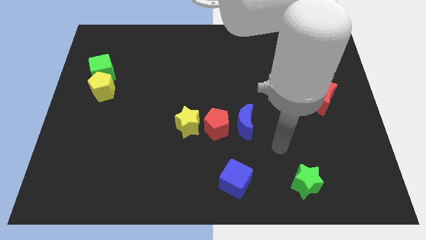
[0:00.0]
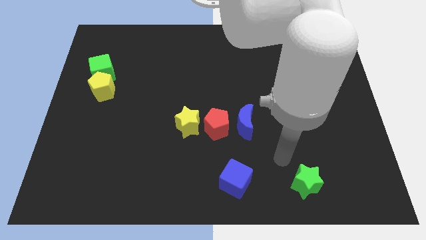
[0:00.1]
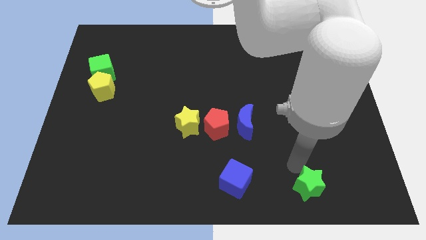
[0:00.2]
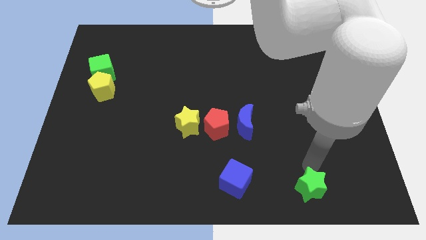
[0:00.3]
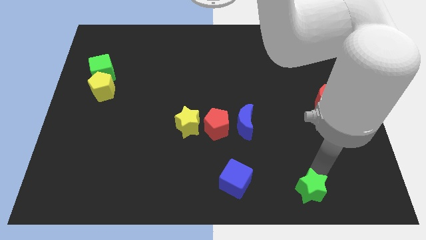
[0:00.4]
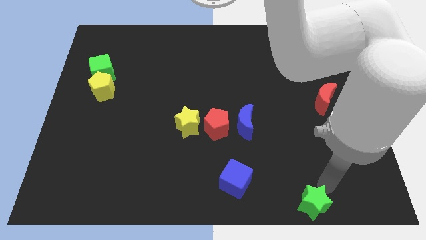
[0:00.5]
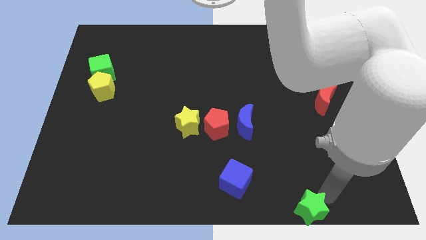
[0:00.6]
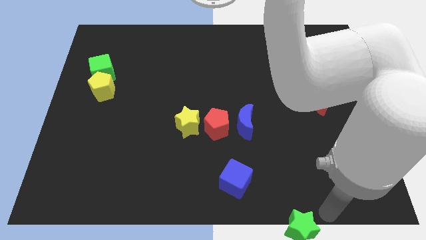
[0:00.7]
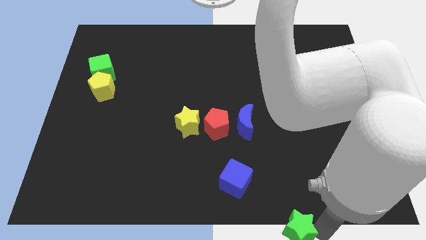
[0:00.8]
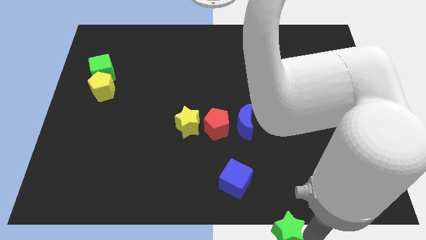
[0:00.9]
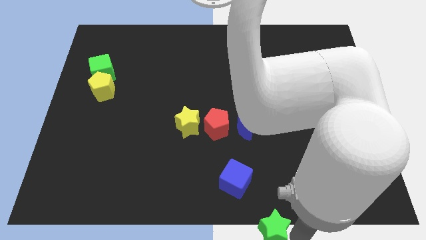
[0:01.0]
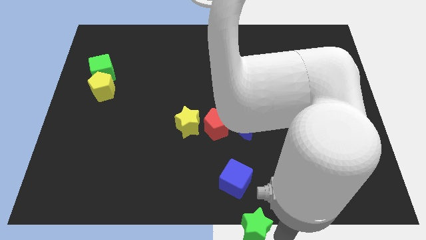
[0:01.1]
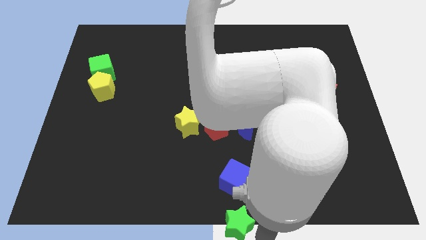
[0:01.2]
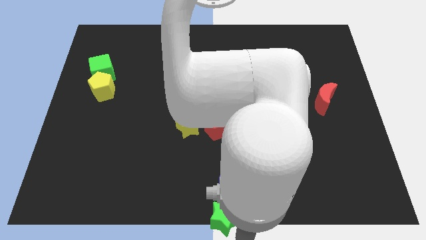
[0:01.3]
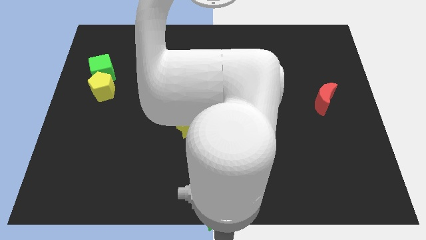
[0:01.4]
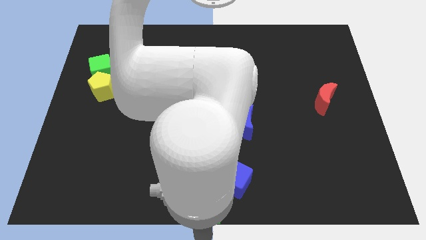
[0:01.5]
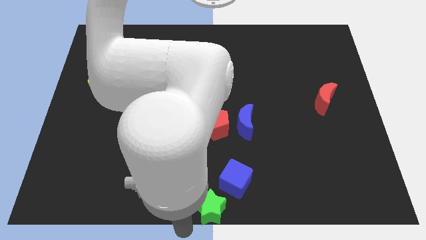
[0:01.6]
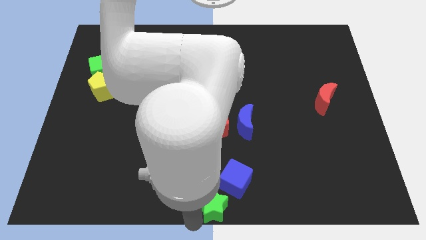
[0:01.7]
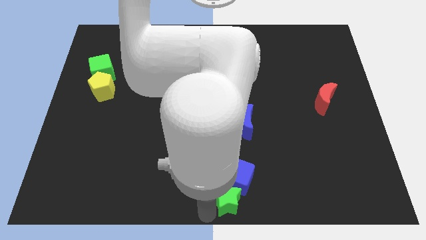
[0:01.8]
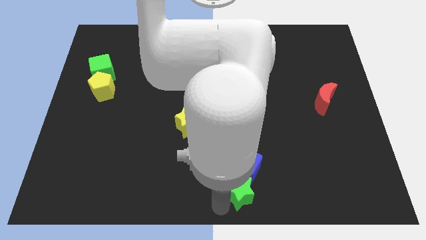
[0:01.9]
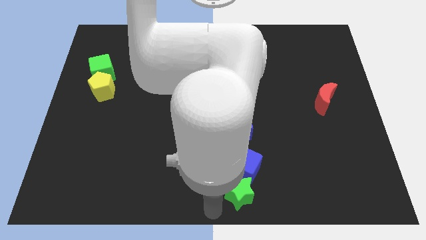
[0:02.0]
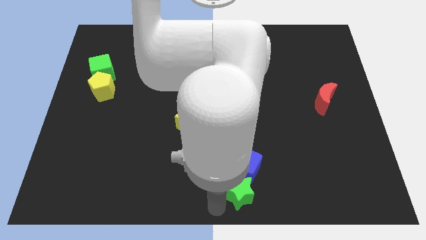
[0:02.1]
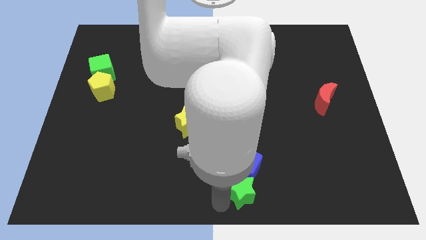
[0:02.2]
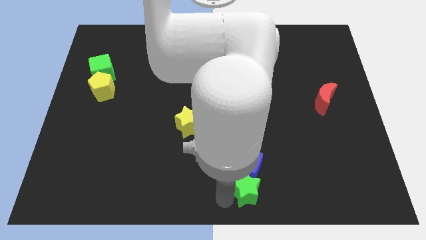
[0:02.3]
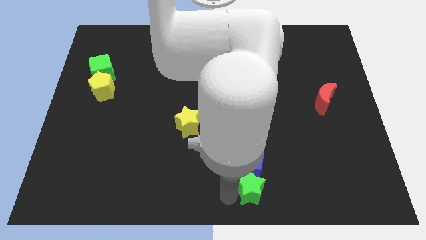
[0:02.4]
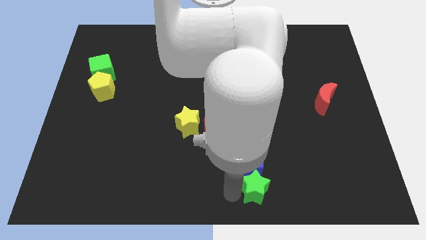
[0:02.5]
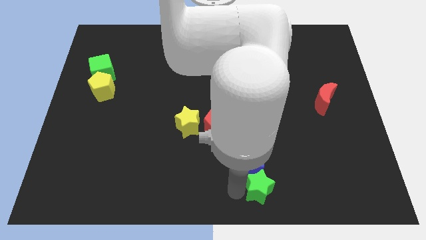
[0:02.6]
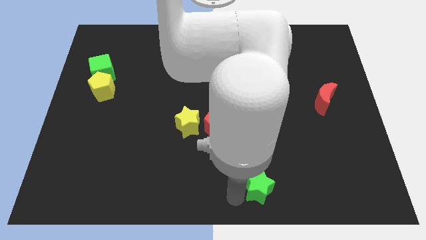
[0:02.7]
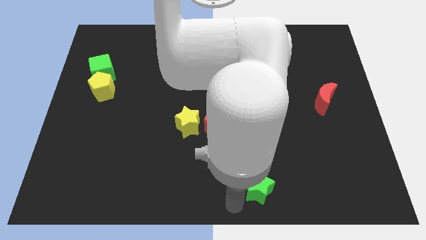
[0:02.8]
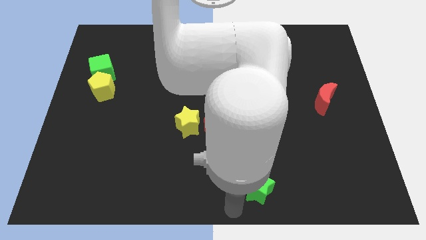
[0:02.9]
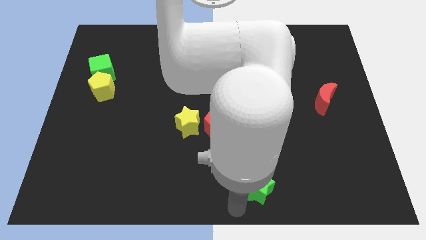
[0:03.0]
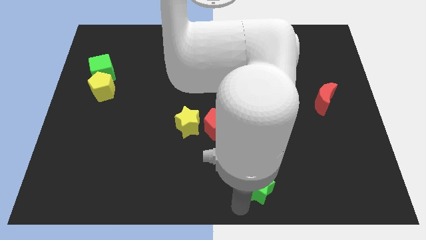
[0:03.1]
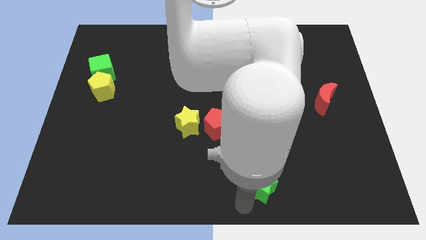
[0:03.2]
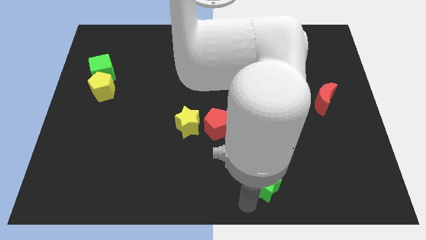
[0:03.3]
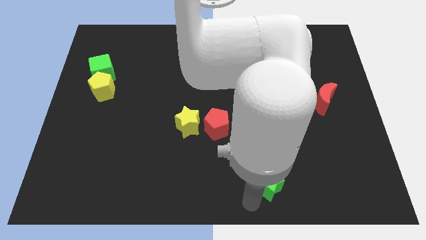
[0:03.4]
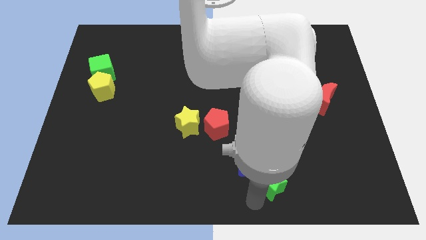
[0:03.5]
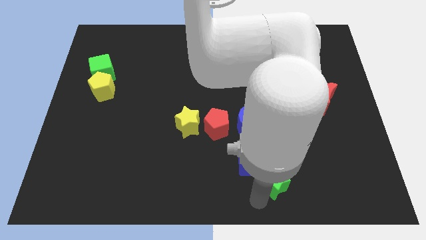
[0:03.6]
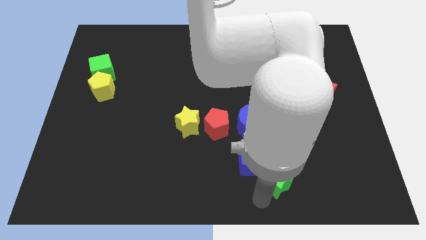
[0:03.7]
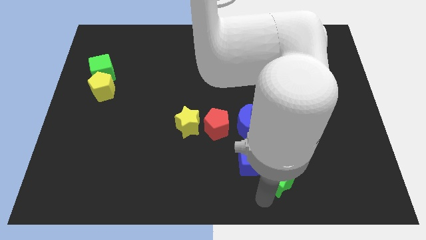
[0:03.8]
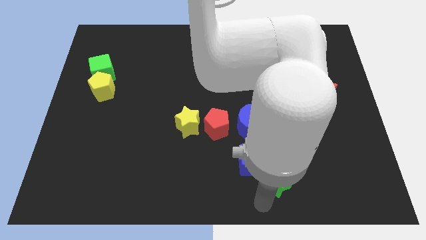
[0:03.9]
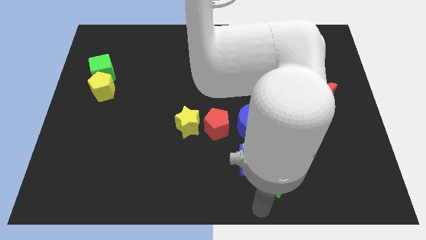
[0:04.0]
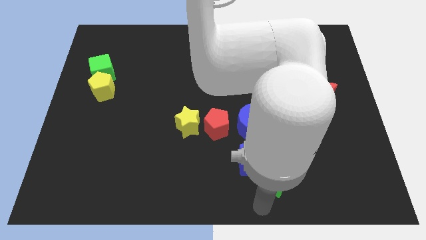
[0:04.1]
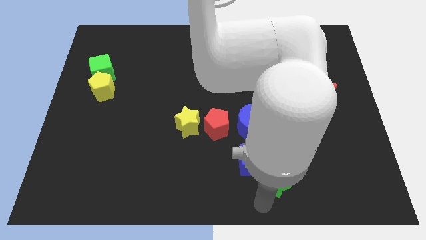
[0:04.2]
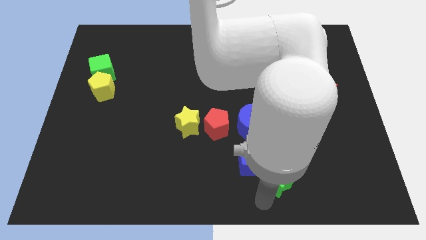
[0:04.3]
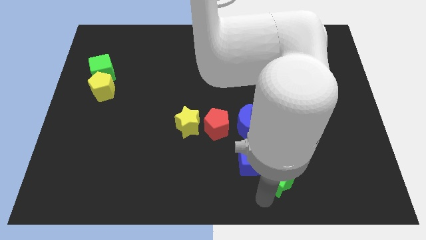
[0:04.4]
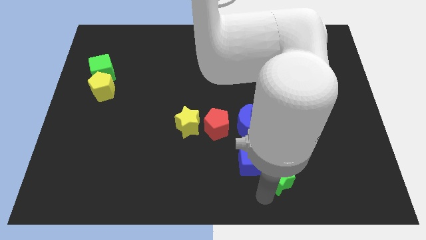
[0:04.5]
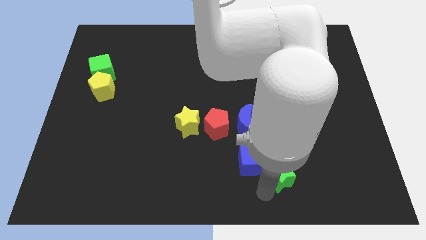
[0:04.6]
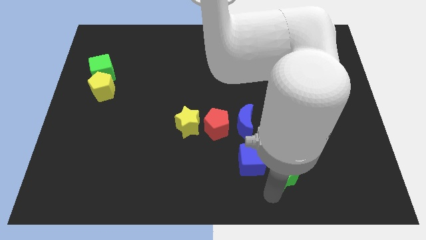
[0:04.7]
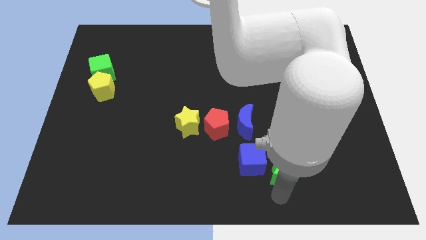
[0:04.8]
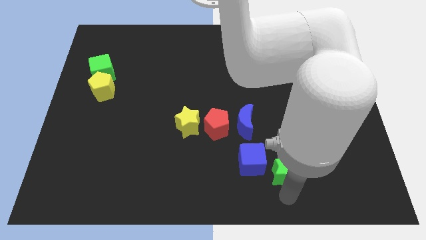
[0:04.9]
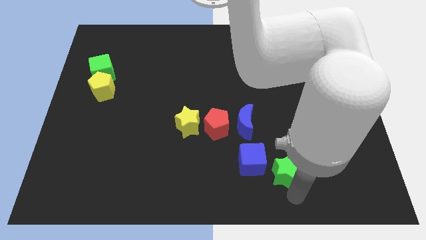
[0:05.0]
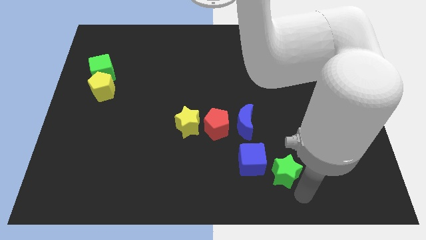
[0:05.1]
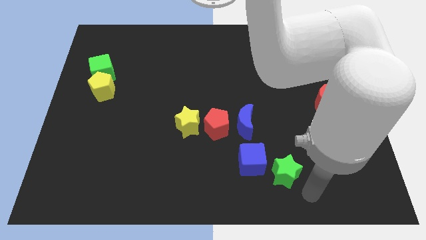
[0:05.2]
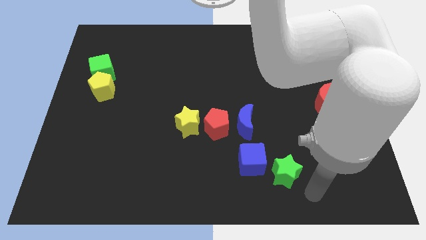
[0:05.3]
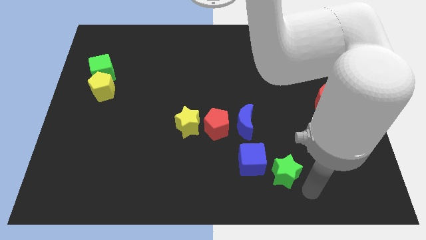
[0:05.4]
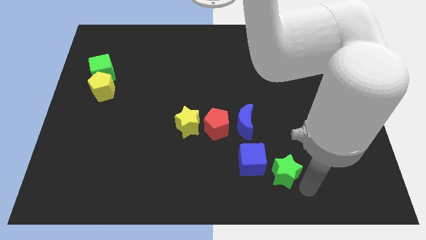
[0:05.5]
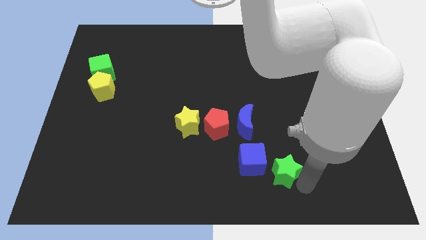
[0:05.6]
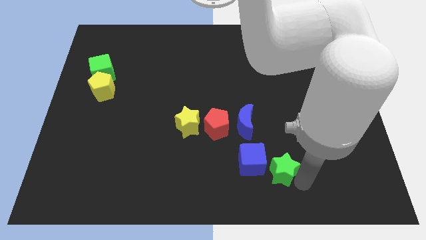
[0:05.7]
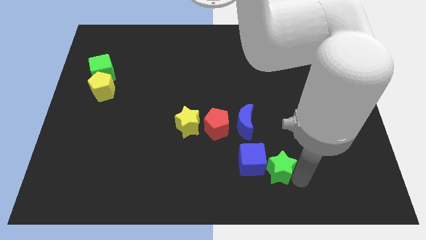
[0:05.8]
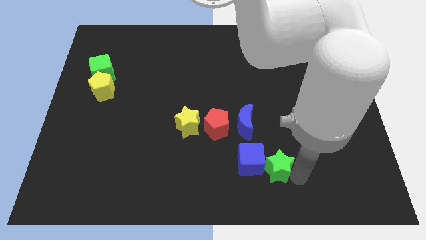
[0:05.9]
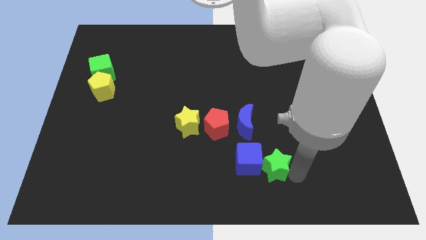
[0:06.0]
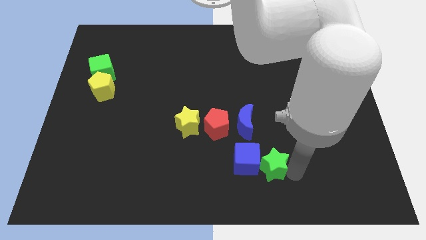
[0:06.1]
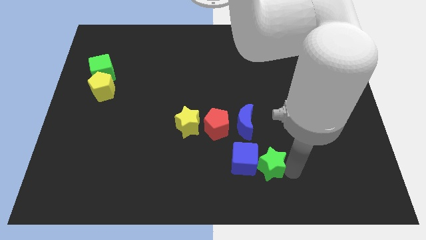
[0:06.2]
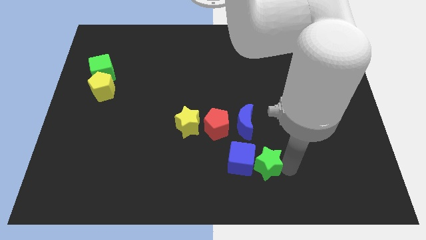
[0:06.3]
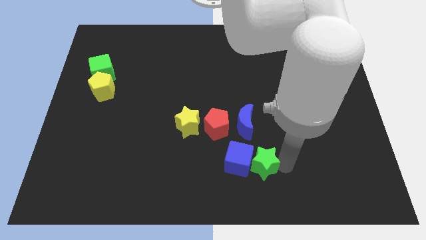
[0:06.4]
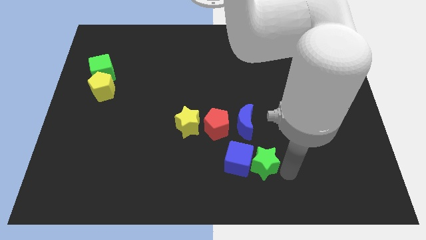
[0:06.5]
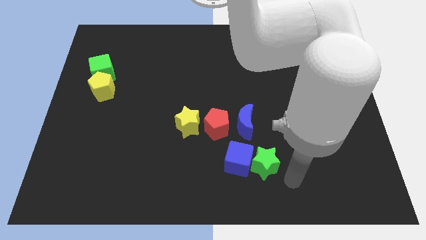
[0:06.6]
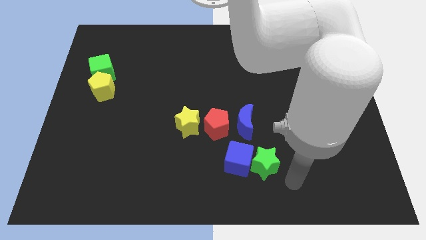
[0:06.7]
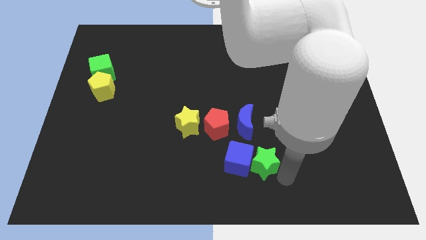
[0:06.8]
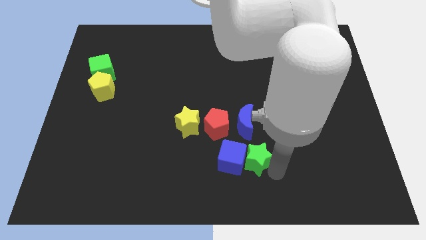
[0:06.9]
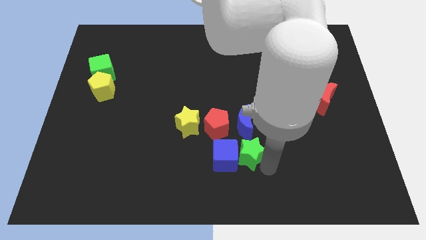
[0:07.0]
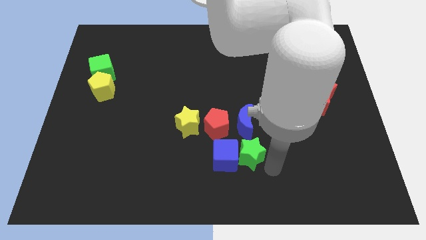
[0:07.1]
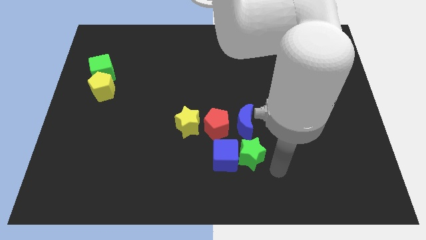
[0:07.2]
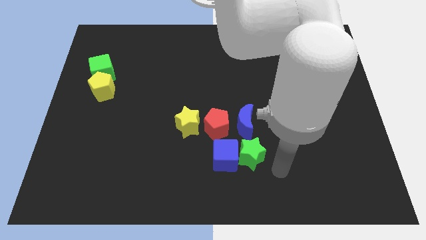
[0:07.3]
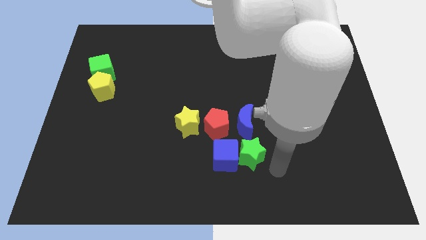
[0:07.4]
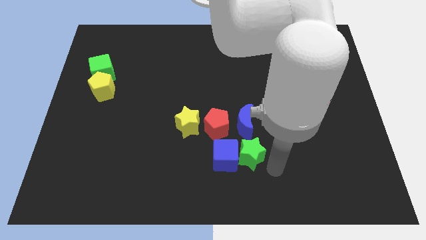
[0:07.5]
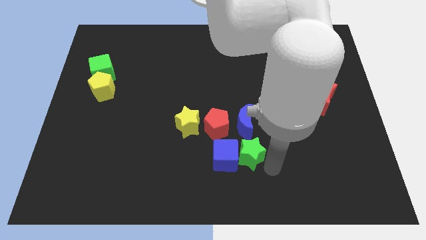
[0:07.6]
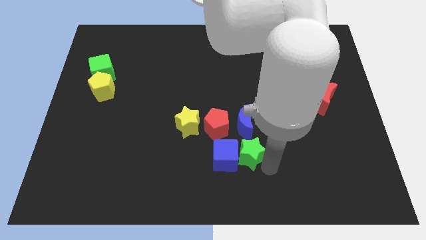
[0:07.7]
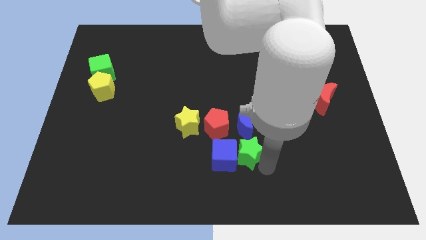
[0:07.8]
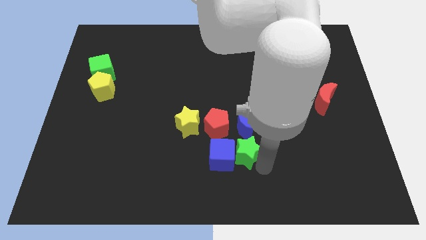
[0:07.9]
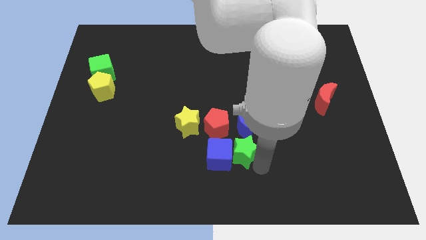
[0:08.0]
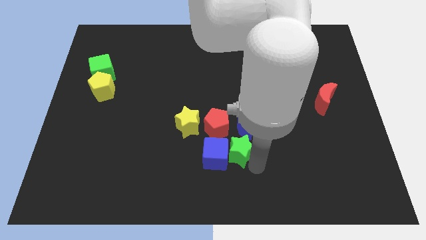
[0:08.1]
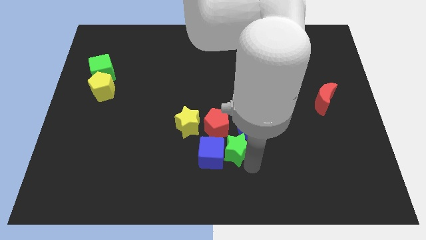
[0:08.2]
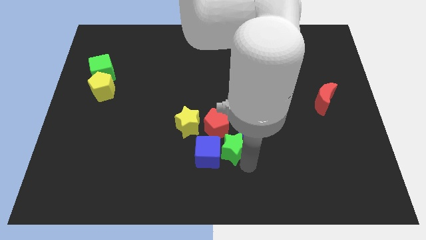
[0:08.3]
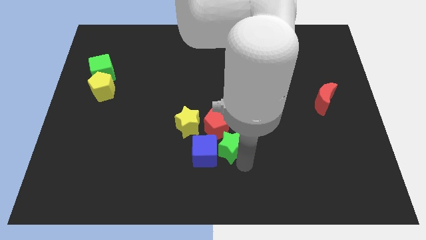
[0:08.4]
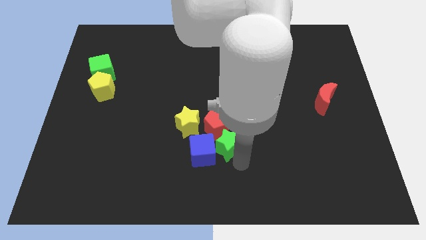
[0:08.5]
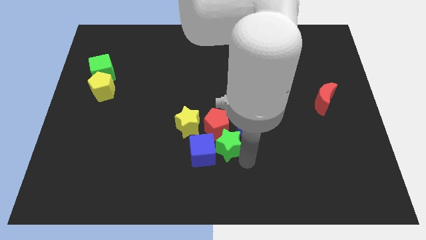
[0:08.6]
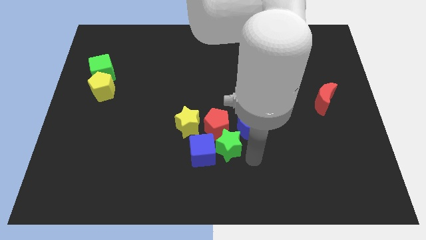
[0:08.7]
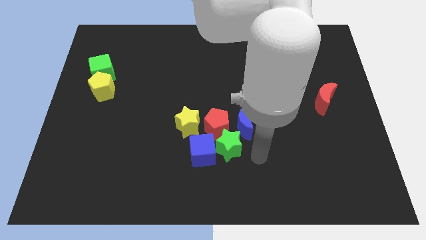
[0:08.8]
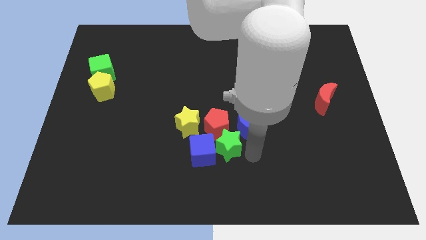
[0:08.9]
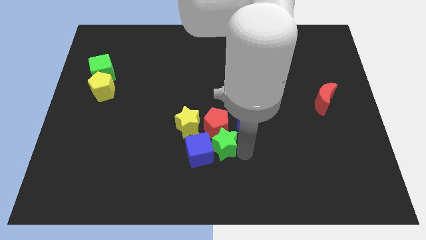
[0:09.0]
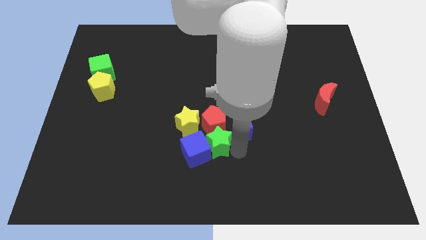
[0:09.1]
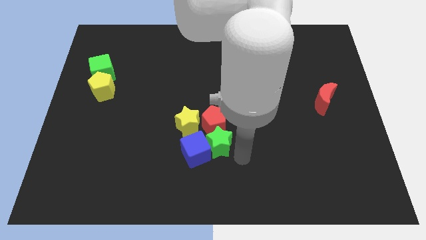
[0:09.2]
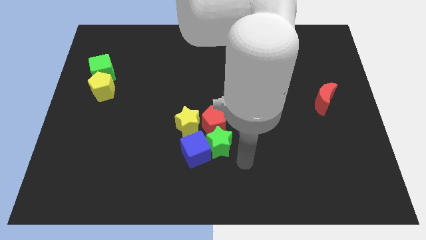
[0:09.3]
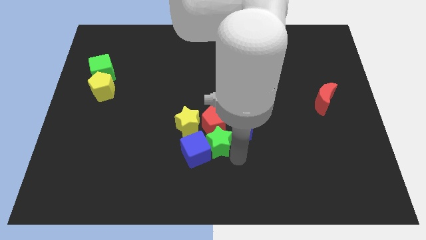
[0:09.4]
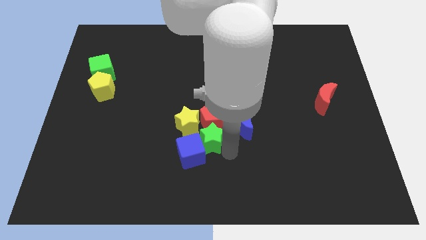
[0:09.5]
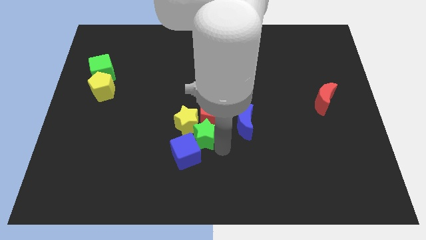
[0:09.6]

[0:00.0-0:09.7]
slide the green star close to the yellow star
